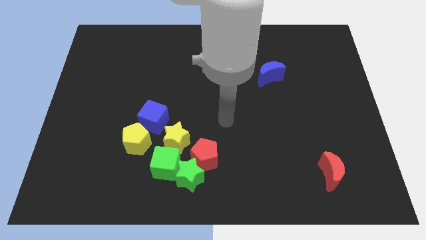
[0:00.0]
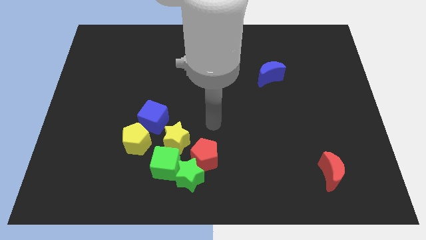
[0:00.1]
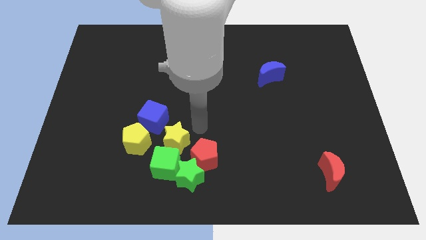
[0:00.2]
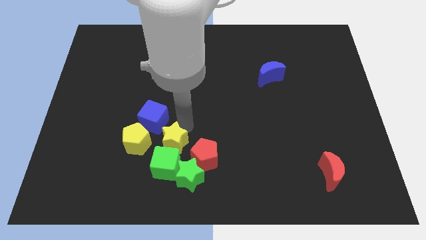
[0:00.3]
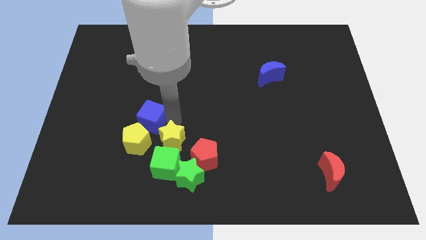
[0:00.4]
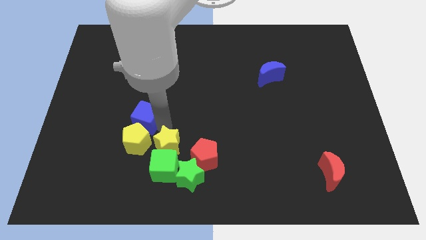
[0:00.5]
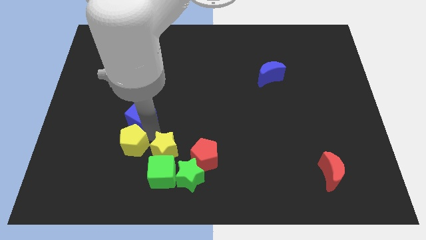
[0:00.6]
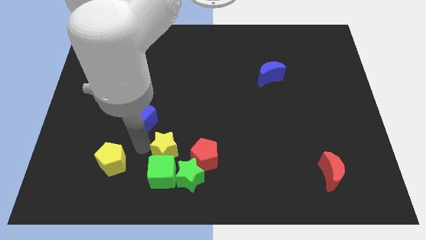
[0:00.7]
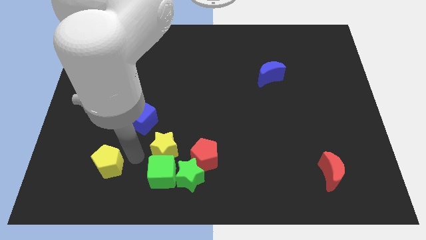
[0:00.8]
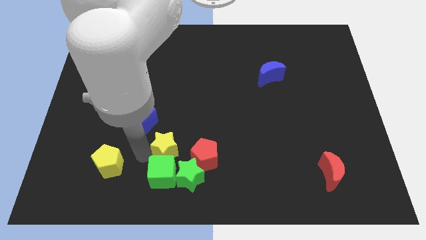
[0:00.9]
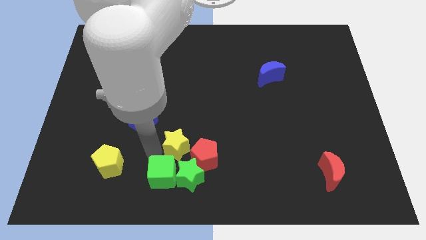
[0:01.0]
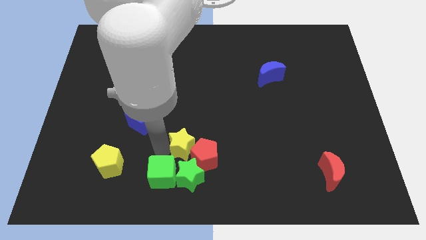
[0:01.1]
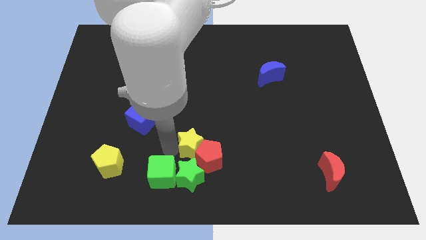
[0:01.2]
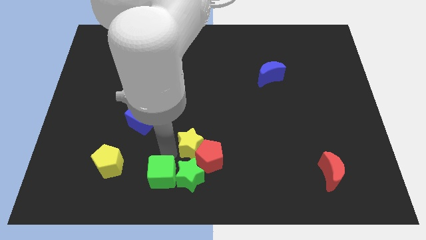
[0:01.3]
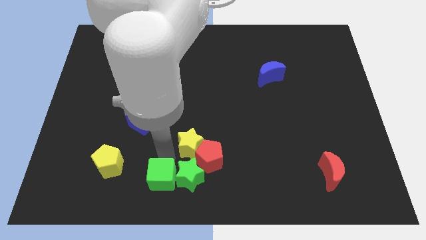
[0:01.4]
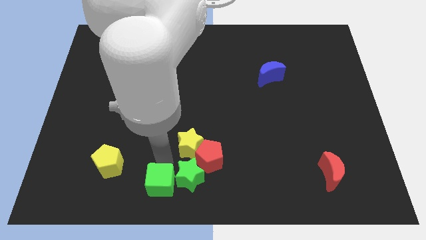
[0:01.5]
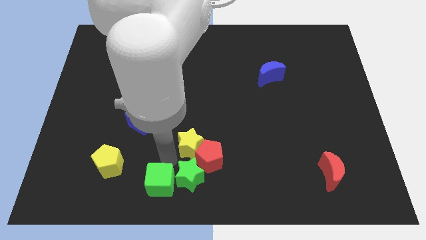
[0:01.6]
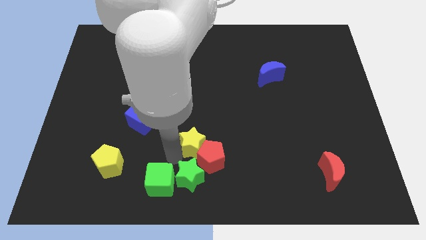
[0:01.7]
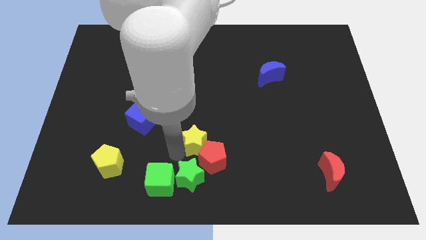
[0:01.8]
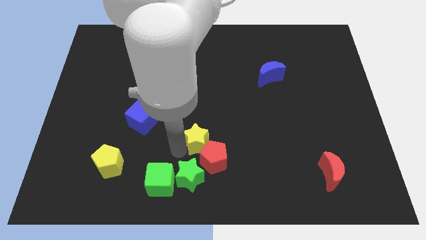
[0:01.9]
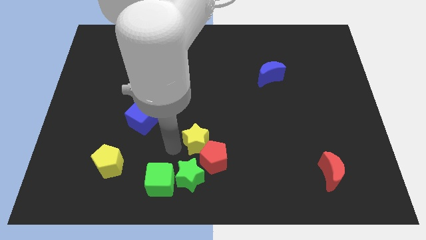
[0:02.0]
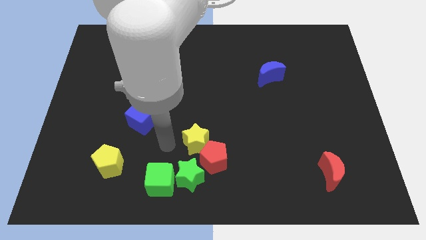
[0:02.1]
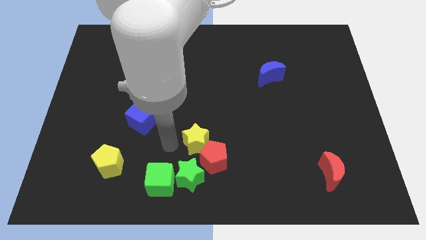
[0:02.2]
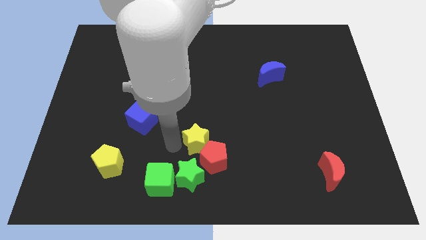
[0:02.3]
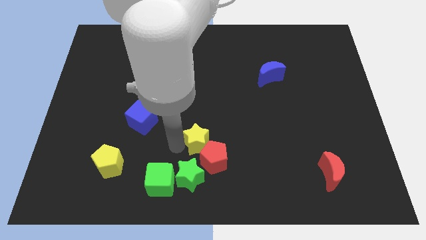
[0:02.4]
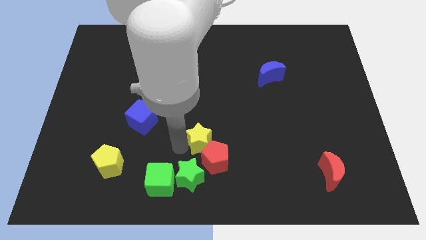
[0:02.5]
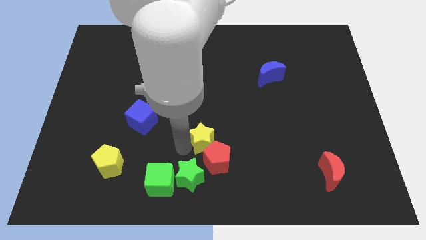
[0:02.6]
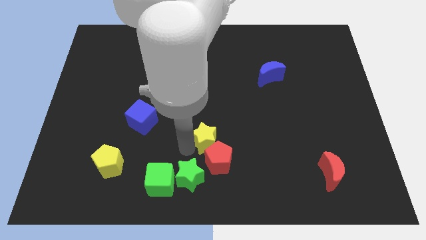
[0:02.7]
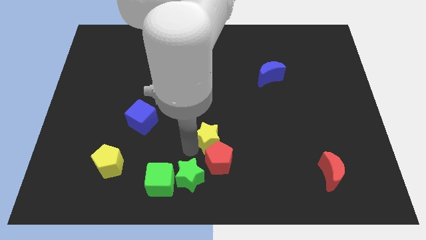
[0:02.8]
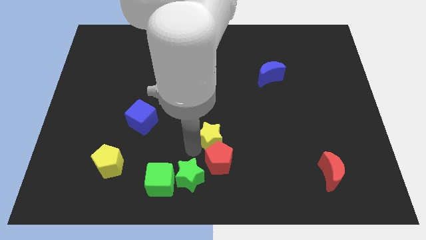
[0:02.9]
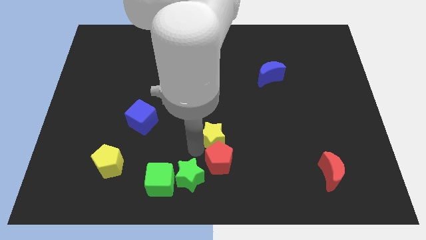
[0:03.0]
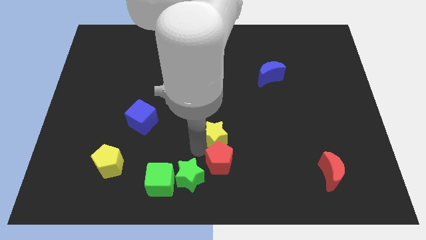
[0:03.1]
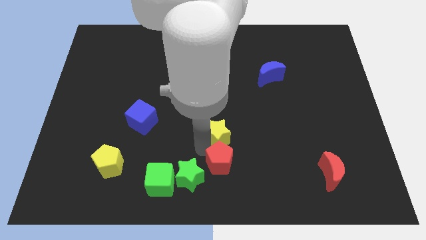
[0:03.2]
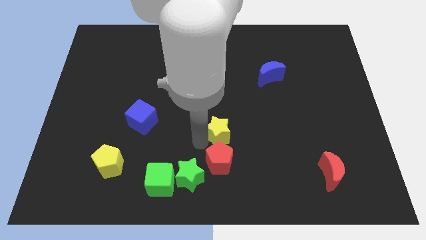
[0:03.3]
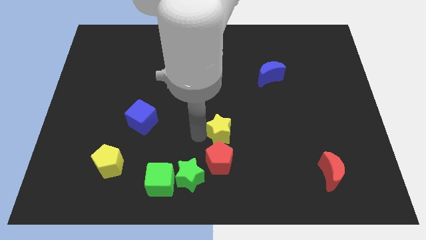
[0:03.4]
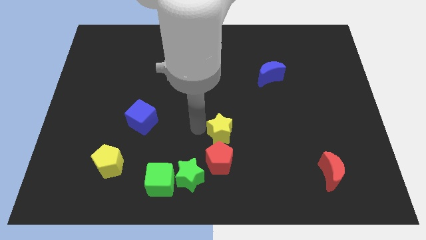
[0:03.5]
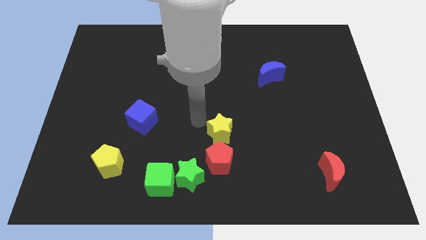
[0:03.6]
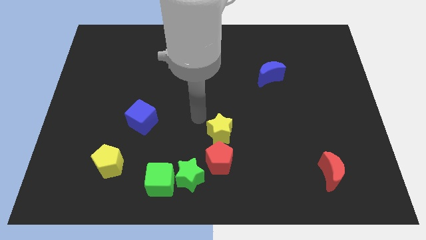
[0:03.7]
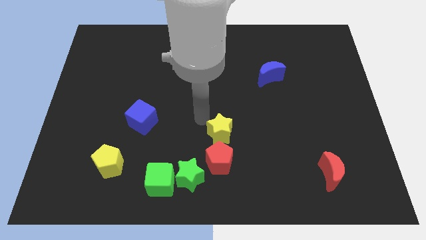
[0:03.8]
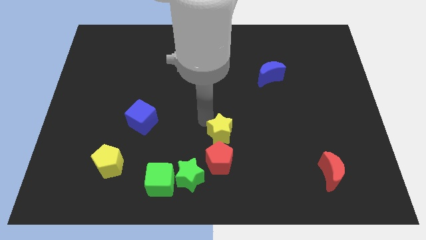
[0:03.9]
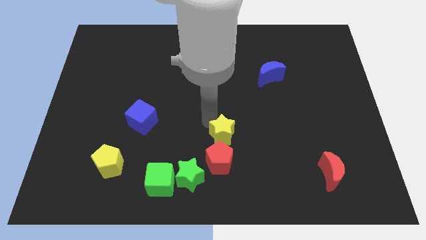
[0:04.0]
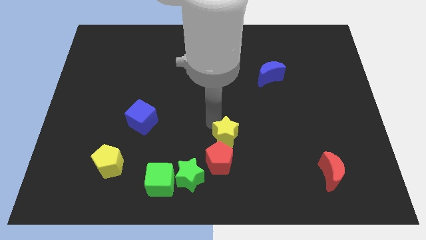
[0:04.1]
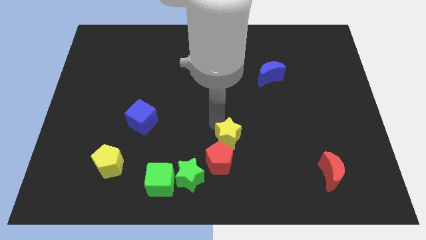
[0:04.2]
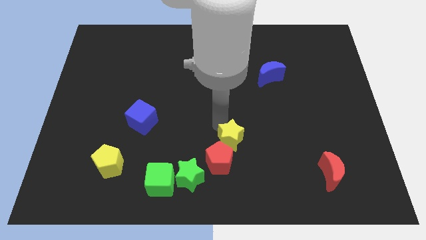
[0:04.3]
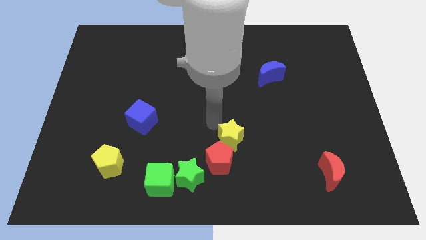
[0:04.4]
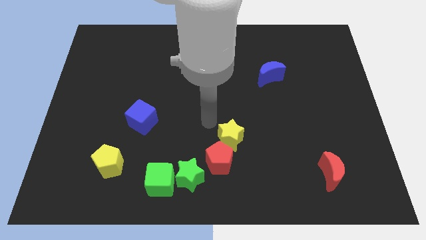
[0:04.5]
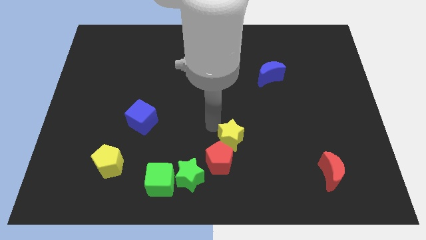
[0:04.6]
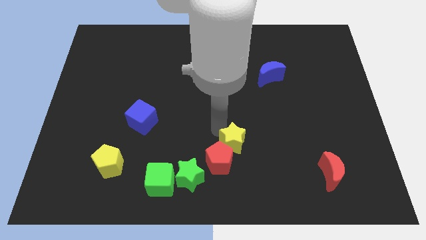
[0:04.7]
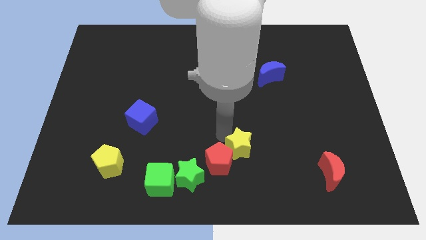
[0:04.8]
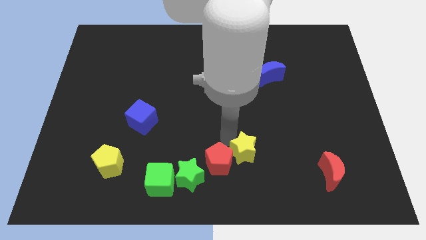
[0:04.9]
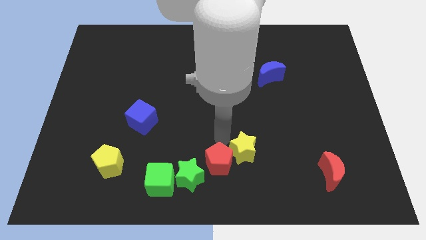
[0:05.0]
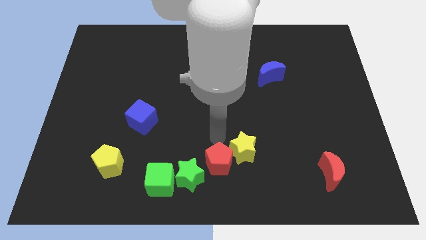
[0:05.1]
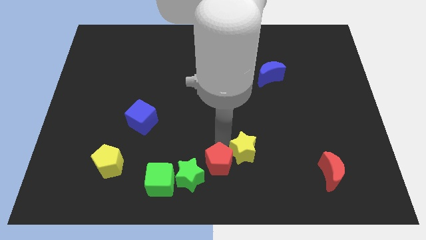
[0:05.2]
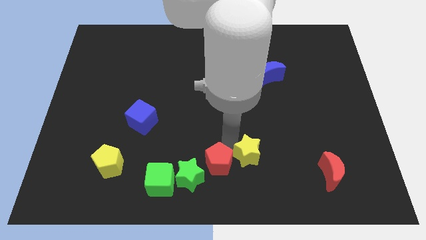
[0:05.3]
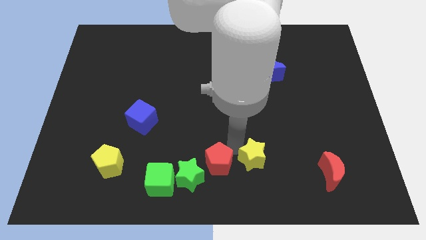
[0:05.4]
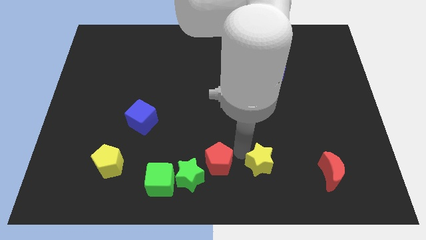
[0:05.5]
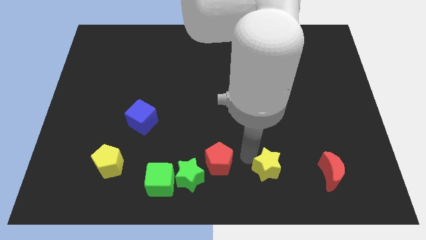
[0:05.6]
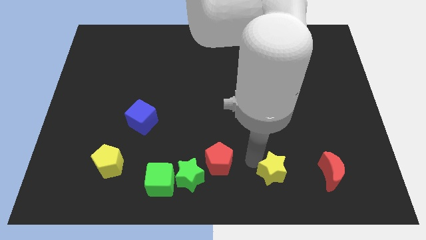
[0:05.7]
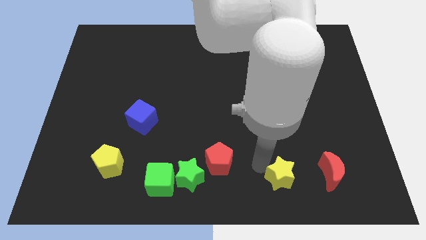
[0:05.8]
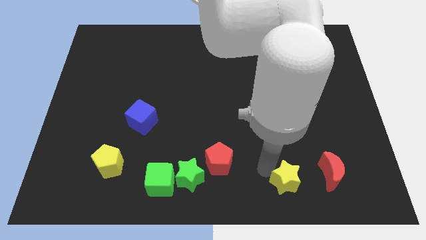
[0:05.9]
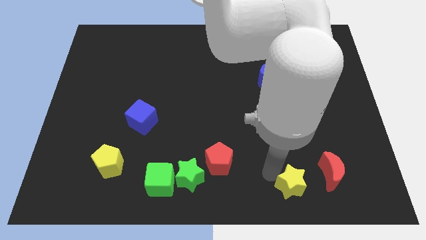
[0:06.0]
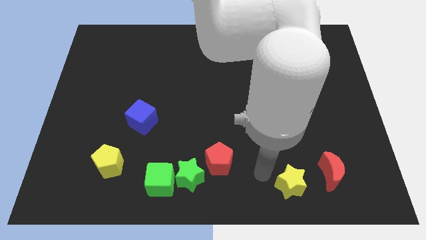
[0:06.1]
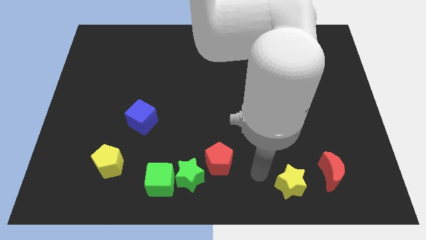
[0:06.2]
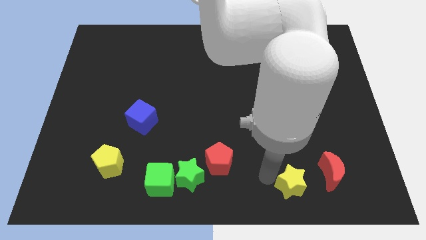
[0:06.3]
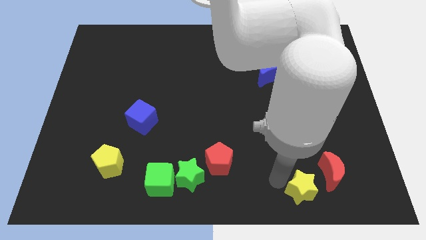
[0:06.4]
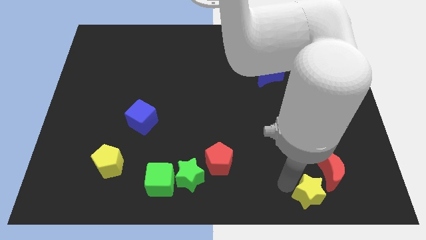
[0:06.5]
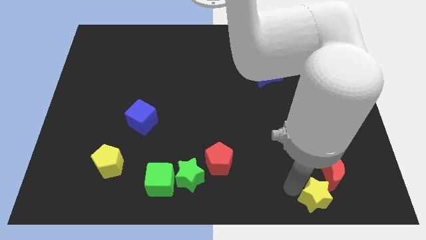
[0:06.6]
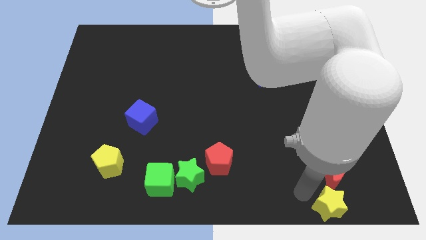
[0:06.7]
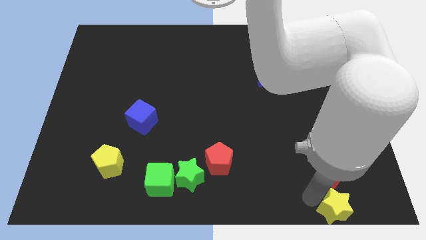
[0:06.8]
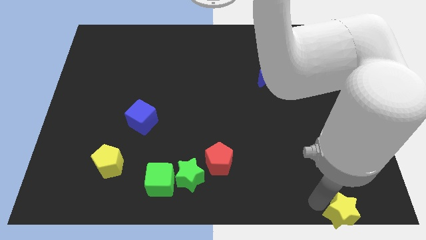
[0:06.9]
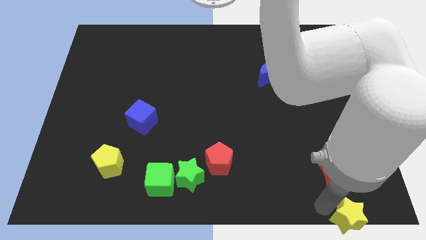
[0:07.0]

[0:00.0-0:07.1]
move the yellow star to the bottom right
